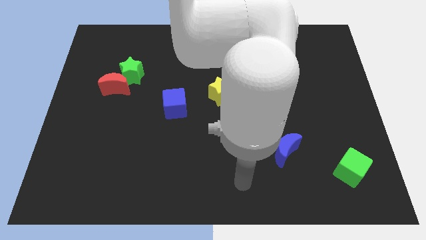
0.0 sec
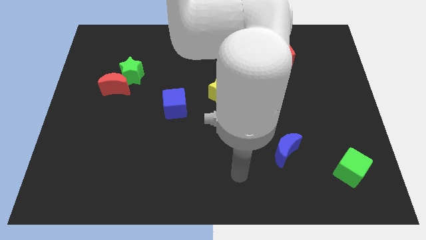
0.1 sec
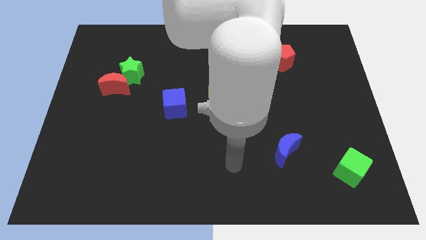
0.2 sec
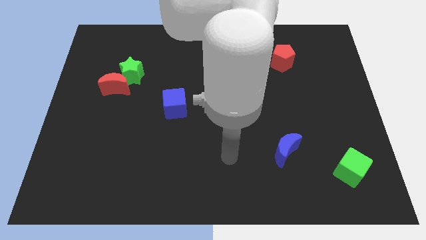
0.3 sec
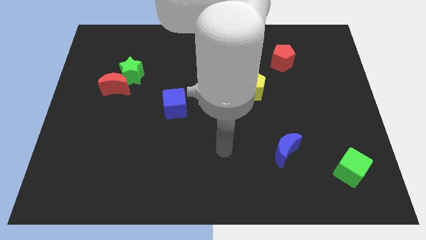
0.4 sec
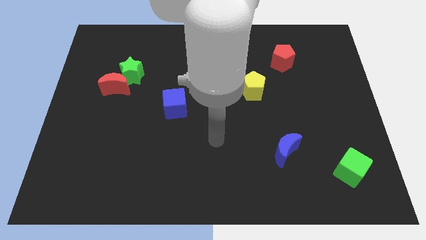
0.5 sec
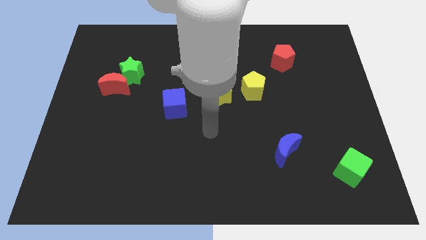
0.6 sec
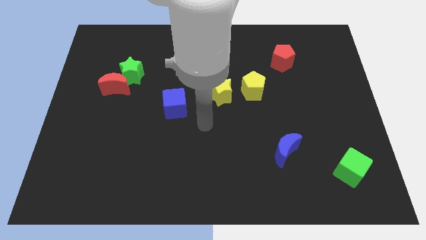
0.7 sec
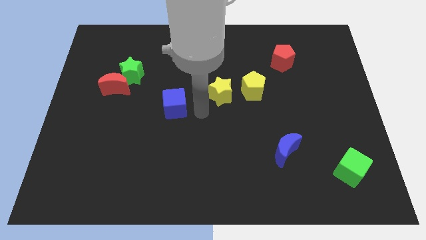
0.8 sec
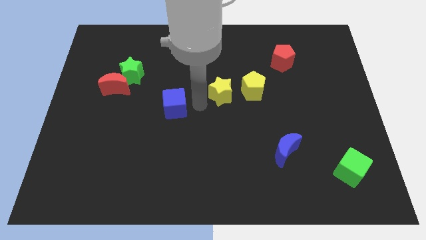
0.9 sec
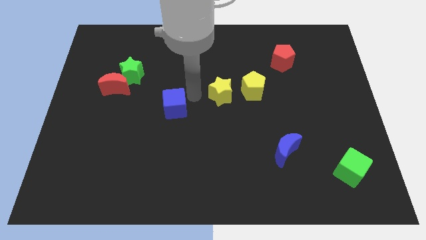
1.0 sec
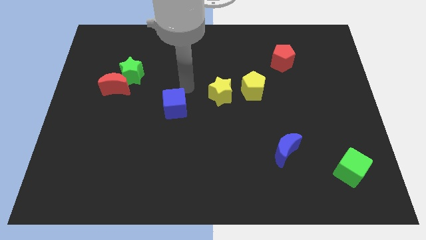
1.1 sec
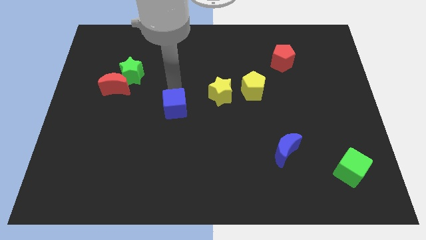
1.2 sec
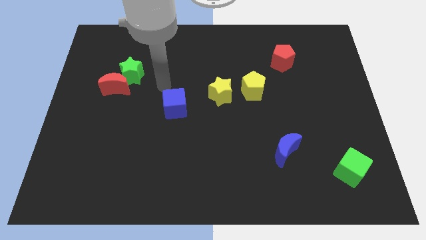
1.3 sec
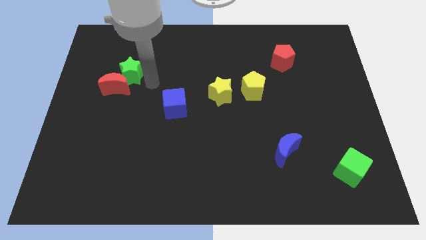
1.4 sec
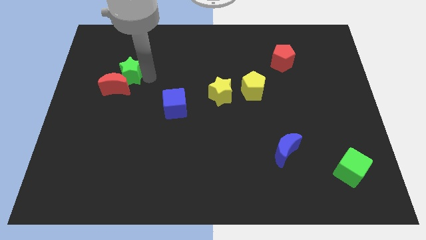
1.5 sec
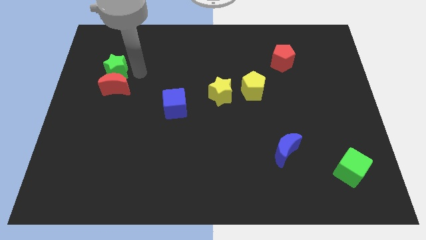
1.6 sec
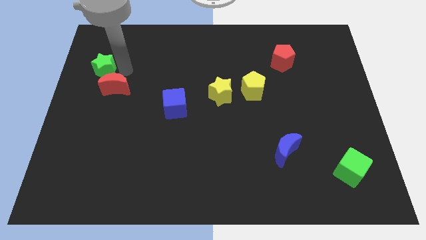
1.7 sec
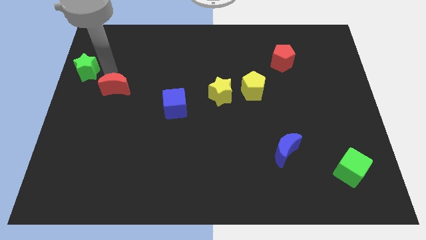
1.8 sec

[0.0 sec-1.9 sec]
separate the red moon from the green star

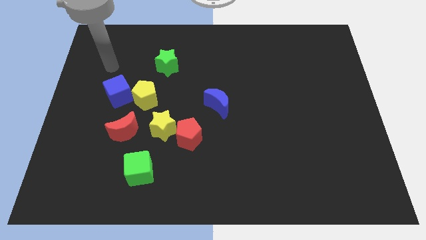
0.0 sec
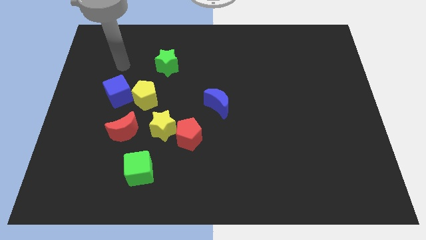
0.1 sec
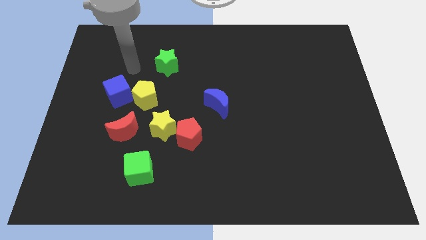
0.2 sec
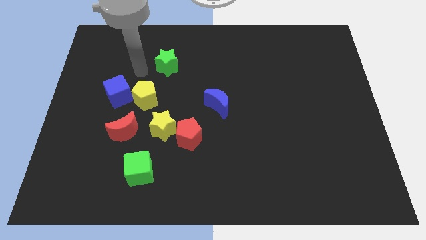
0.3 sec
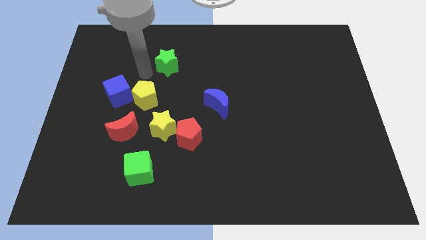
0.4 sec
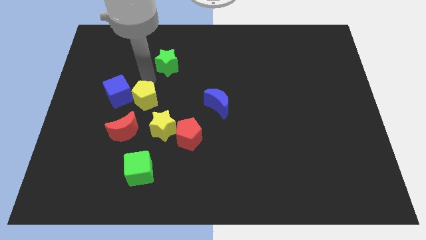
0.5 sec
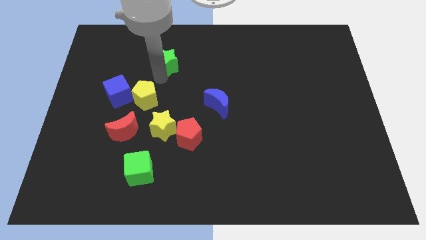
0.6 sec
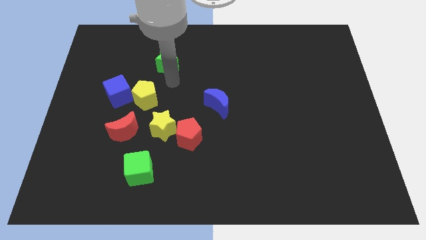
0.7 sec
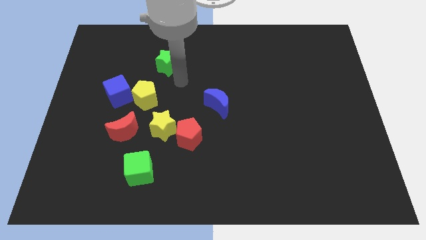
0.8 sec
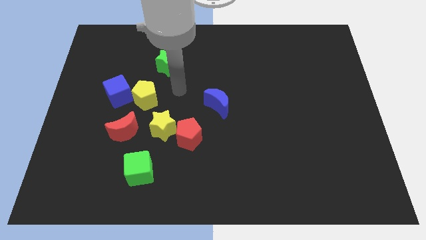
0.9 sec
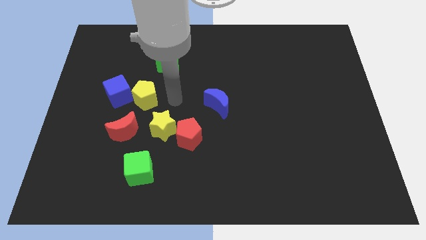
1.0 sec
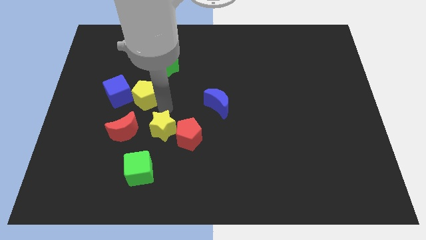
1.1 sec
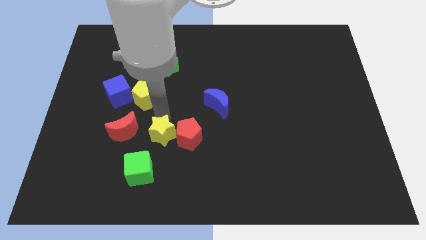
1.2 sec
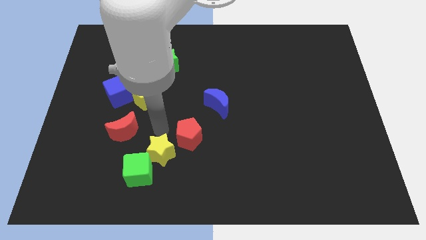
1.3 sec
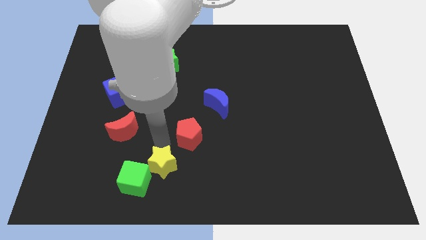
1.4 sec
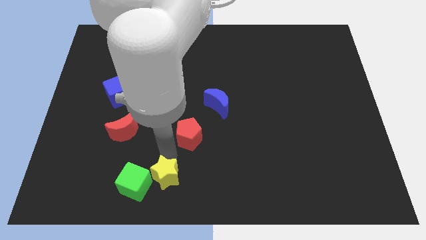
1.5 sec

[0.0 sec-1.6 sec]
separate the red pentagon from the yellow star

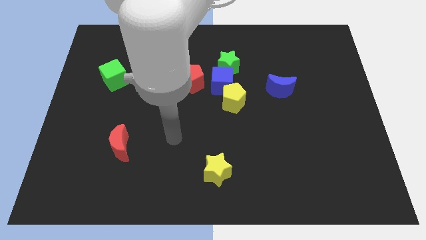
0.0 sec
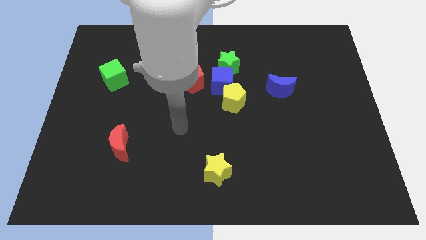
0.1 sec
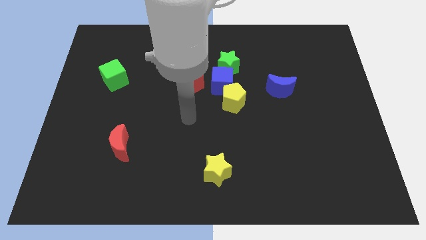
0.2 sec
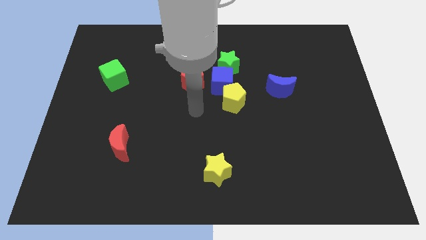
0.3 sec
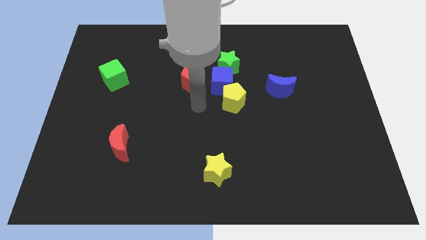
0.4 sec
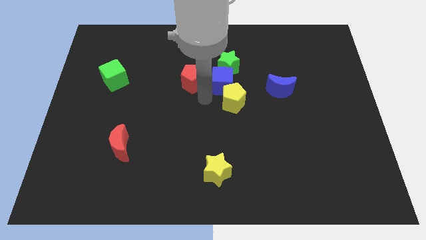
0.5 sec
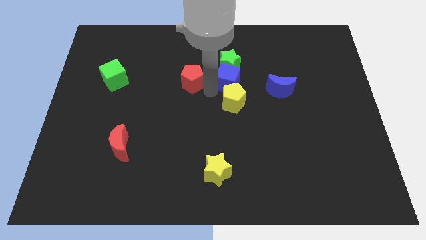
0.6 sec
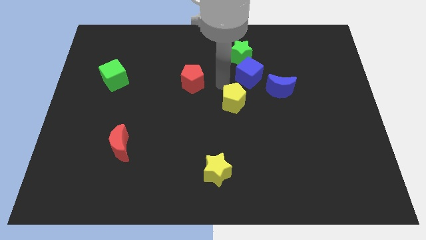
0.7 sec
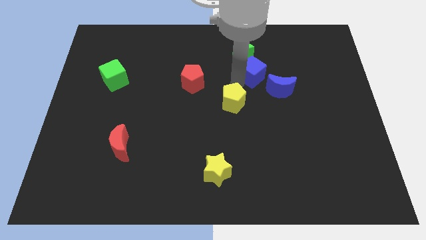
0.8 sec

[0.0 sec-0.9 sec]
separate the yellow pentagon from the blue cube

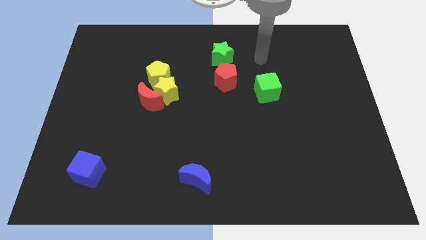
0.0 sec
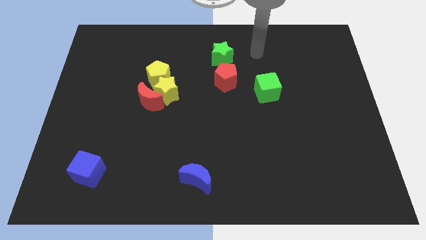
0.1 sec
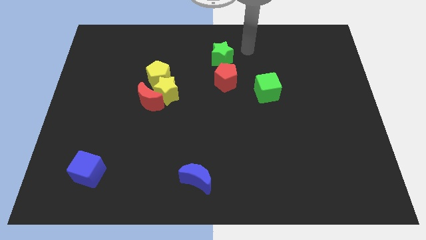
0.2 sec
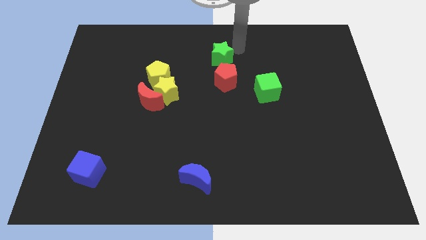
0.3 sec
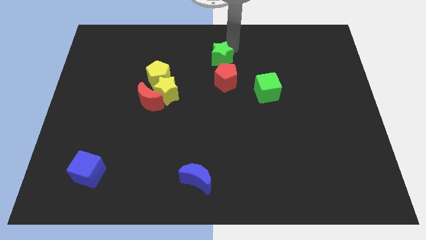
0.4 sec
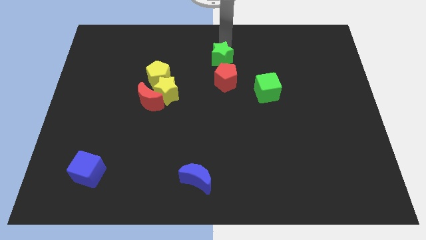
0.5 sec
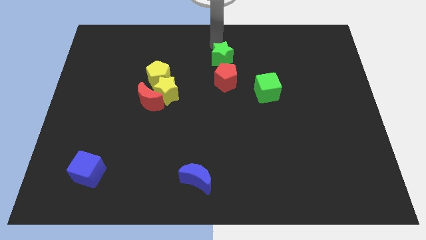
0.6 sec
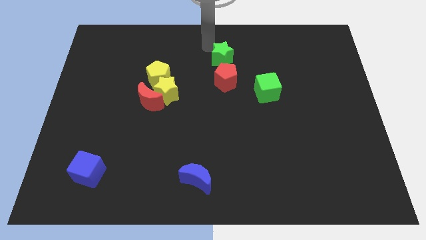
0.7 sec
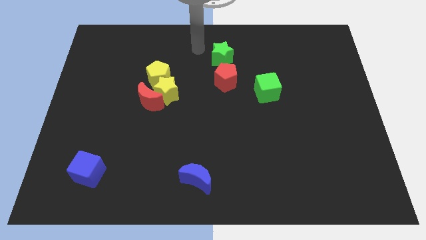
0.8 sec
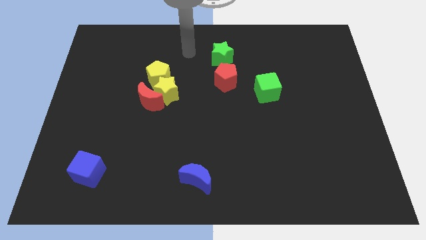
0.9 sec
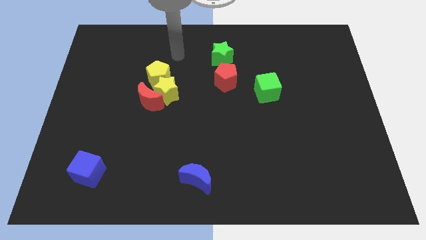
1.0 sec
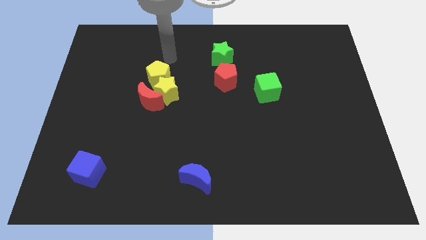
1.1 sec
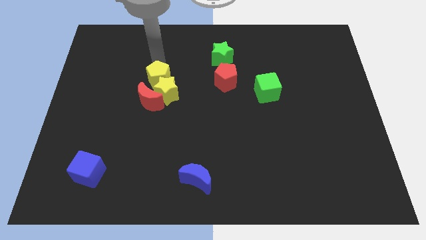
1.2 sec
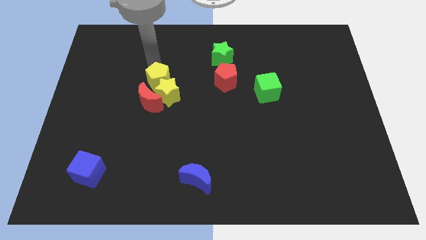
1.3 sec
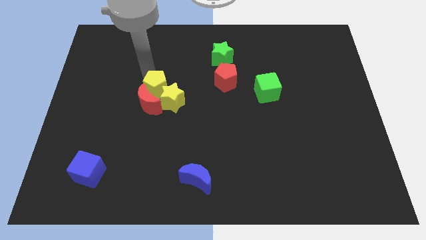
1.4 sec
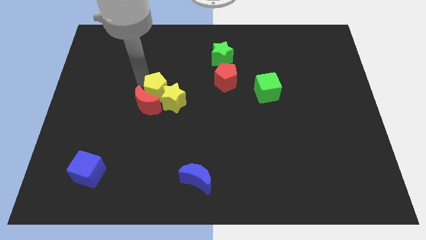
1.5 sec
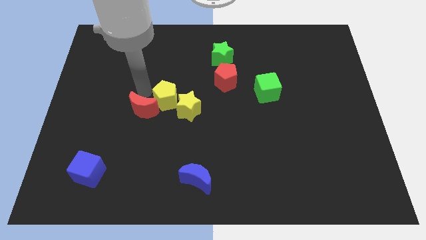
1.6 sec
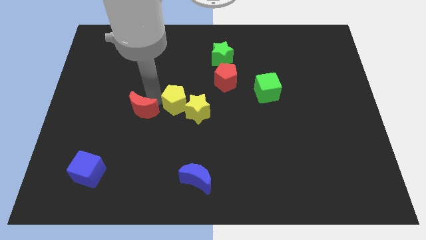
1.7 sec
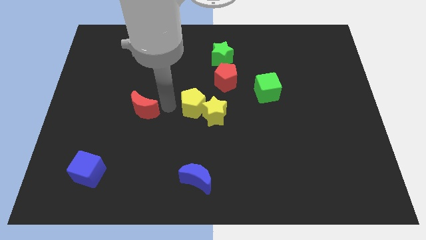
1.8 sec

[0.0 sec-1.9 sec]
move the yellow star away from the red moon and yellow pentagon

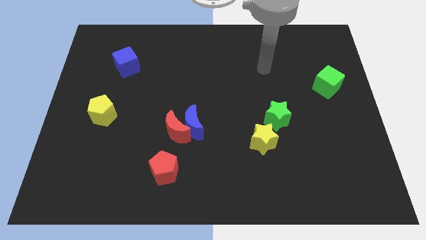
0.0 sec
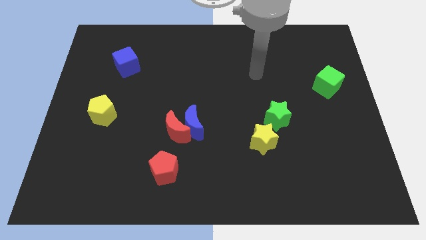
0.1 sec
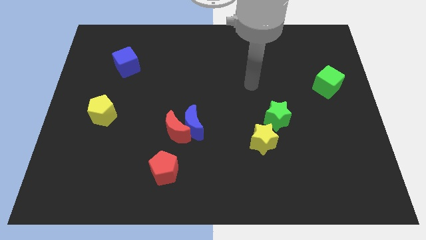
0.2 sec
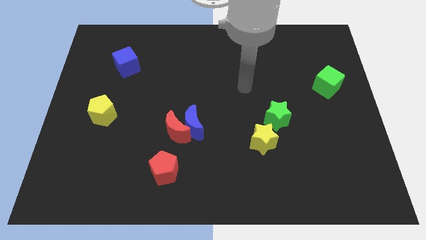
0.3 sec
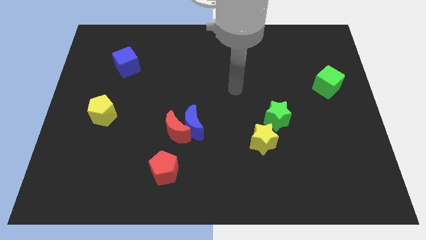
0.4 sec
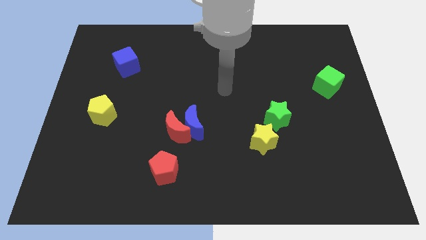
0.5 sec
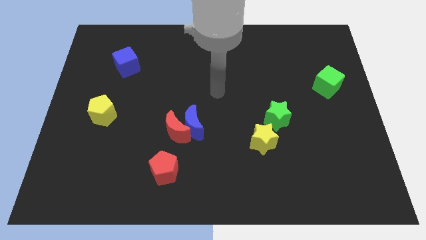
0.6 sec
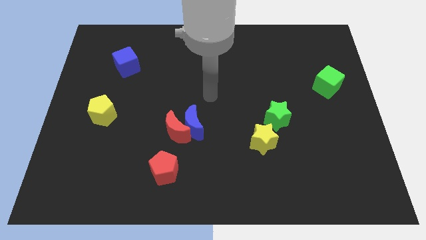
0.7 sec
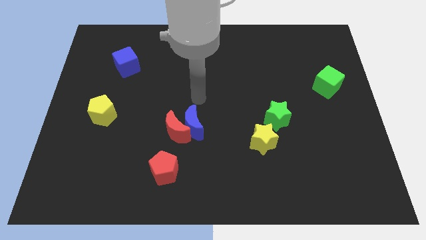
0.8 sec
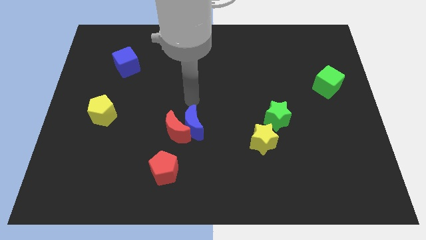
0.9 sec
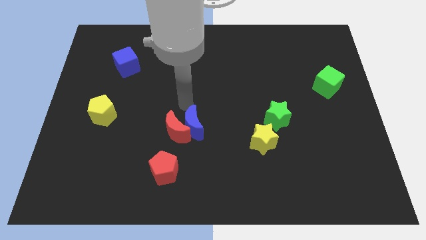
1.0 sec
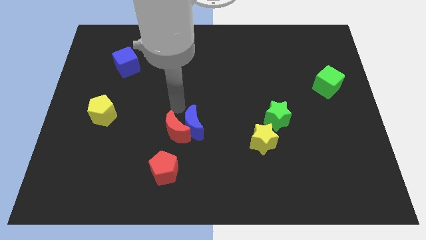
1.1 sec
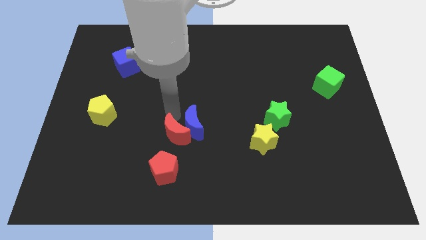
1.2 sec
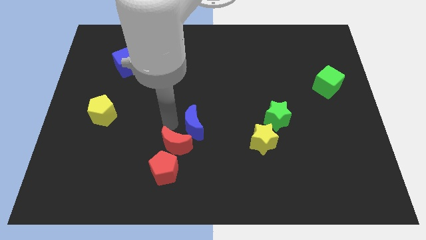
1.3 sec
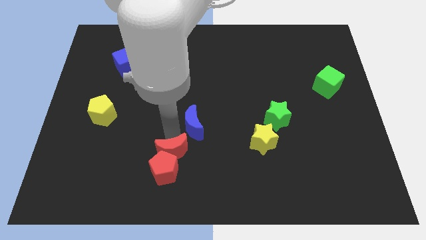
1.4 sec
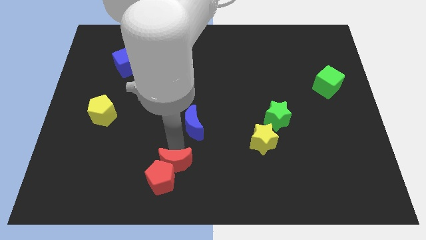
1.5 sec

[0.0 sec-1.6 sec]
separate the blue moon from the red moon

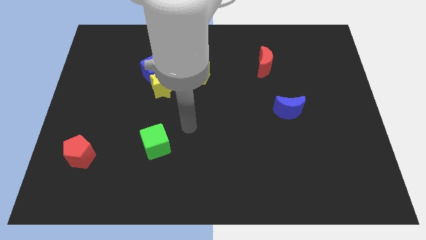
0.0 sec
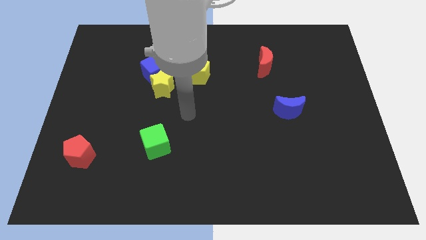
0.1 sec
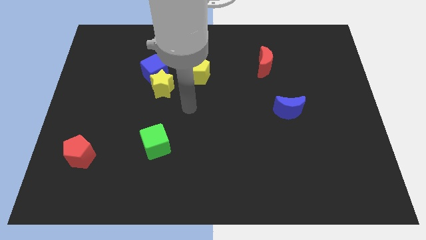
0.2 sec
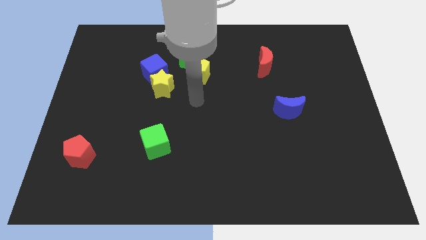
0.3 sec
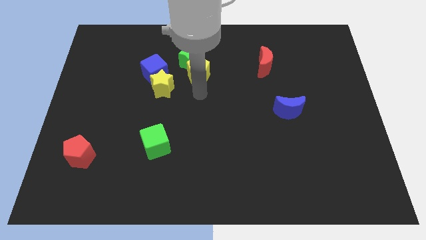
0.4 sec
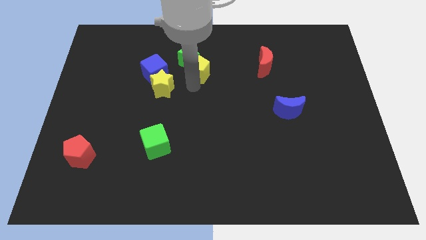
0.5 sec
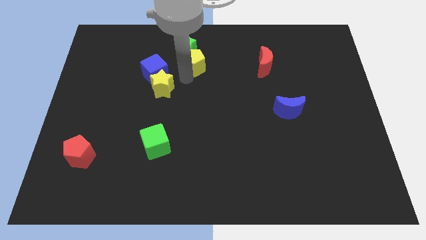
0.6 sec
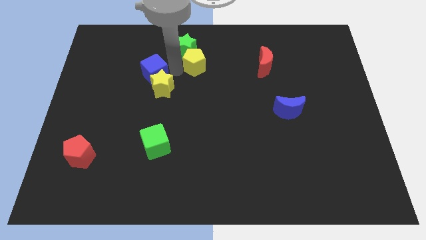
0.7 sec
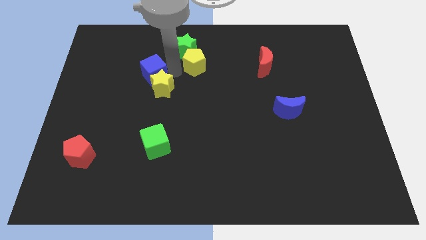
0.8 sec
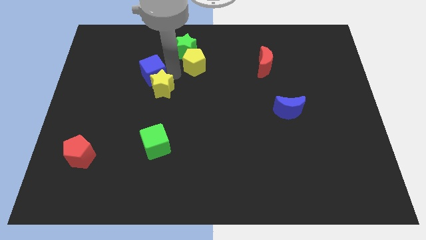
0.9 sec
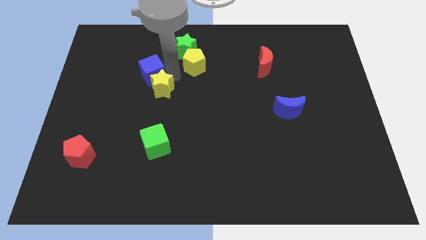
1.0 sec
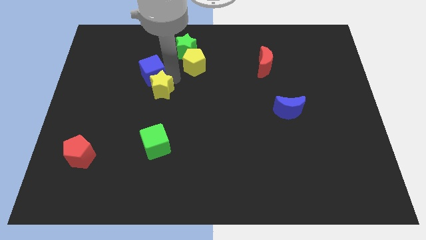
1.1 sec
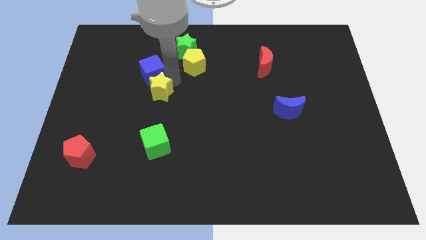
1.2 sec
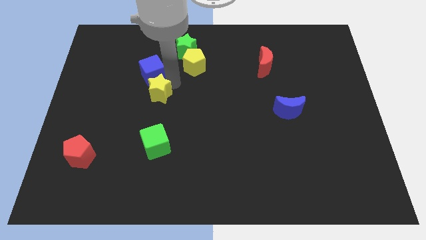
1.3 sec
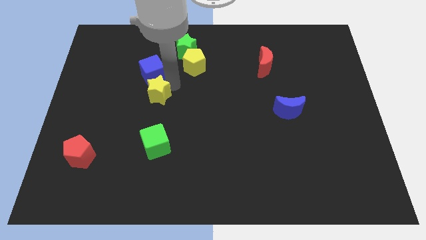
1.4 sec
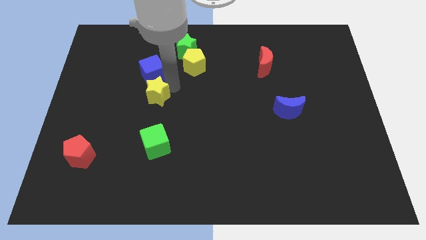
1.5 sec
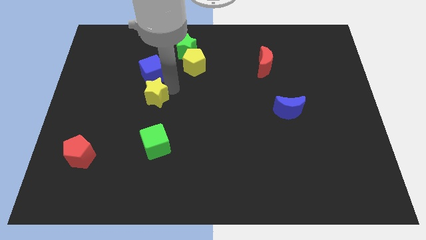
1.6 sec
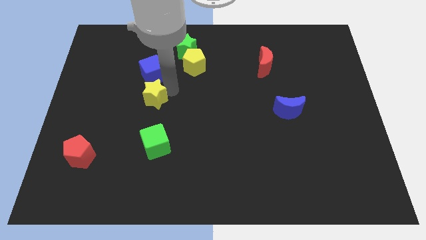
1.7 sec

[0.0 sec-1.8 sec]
separate the yellow star from the blue cube and yellow pentagon
